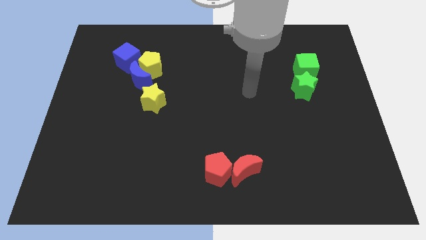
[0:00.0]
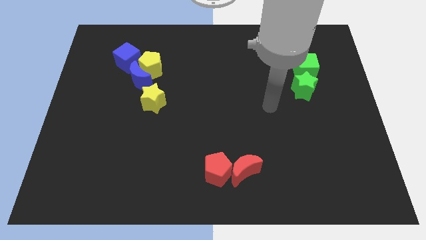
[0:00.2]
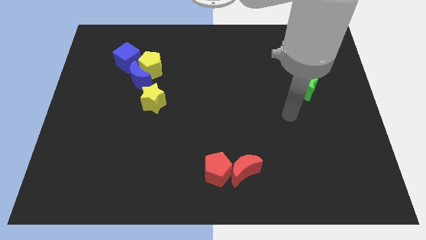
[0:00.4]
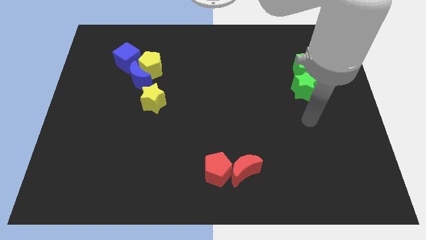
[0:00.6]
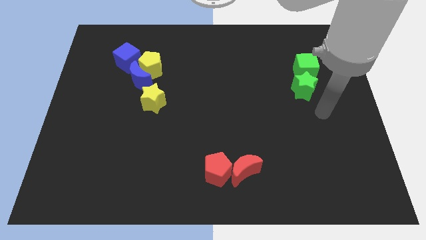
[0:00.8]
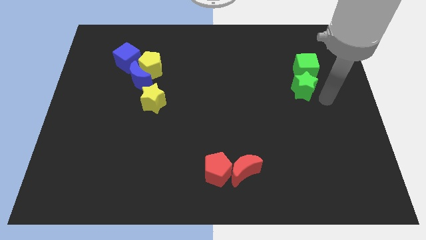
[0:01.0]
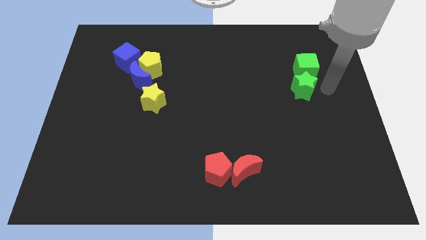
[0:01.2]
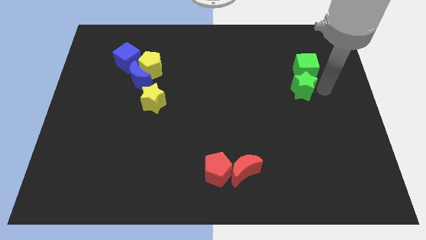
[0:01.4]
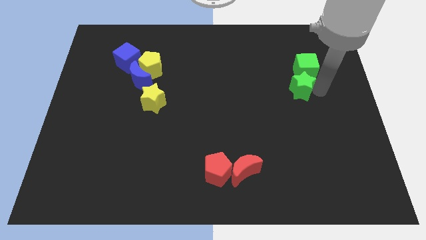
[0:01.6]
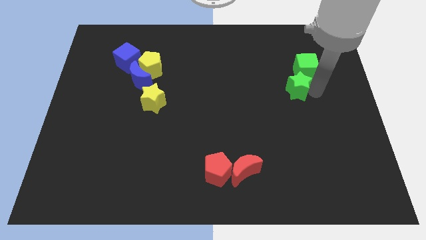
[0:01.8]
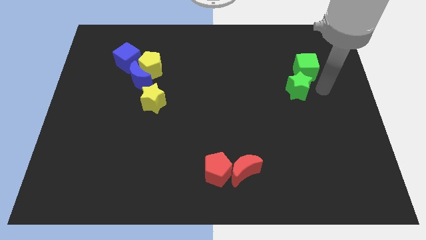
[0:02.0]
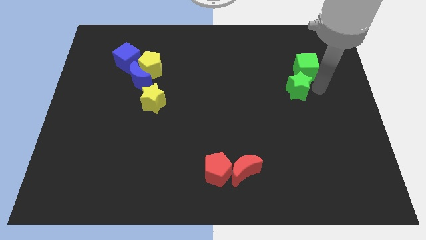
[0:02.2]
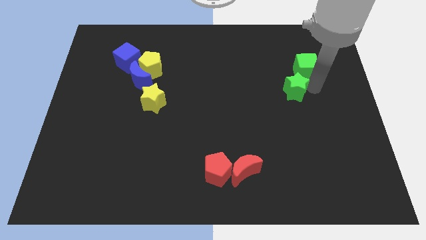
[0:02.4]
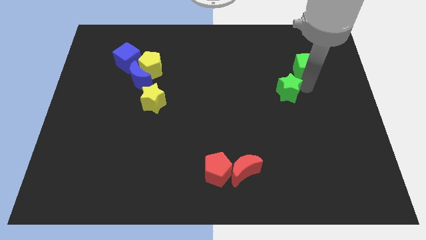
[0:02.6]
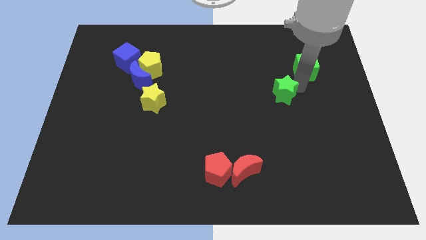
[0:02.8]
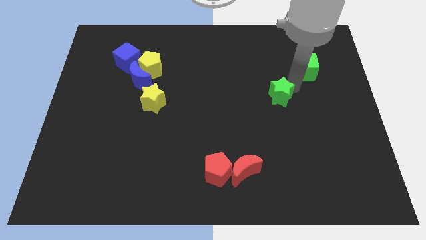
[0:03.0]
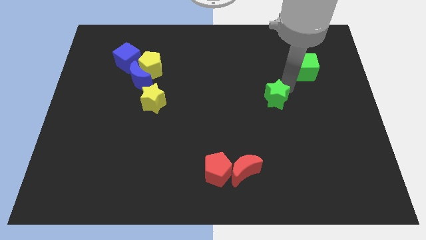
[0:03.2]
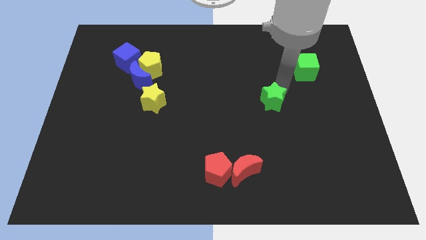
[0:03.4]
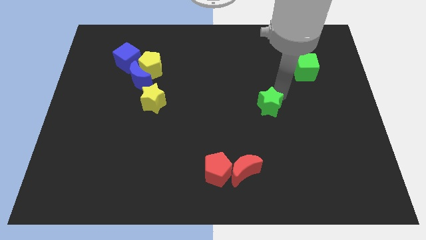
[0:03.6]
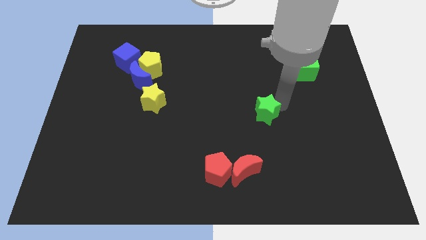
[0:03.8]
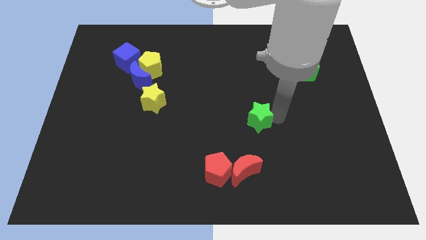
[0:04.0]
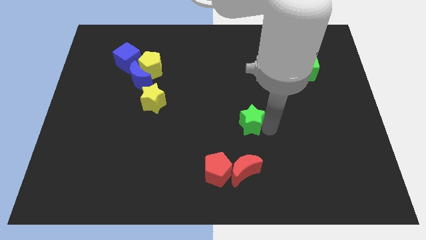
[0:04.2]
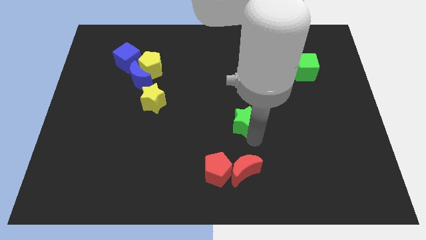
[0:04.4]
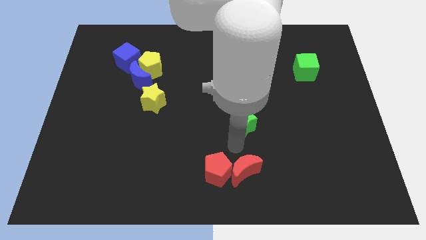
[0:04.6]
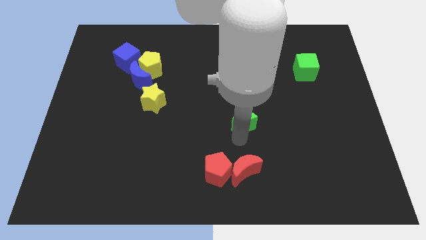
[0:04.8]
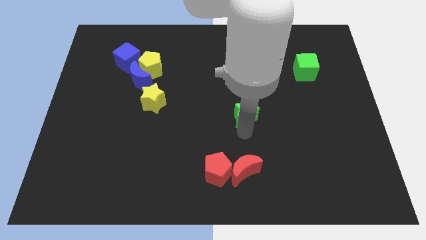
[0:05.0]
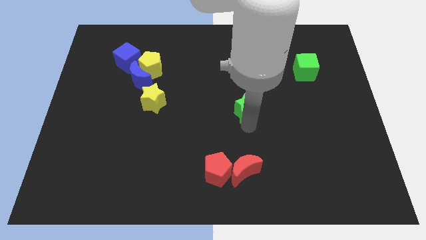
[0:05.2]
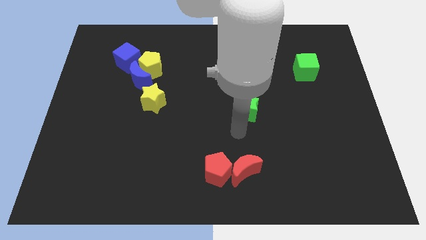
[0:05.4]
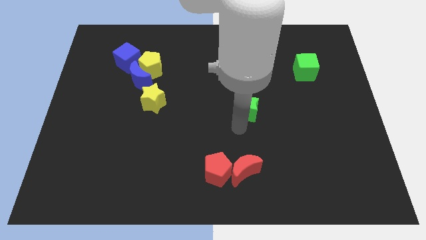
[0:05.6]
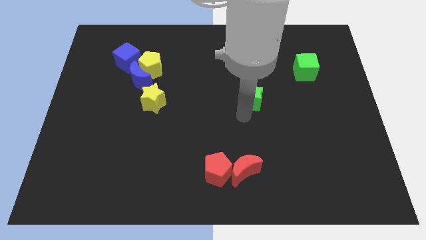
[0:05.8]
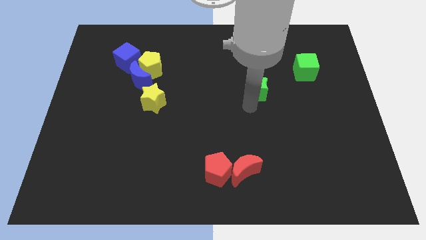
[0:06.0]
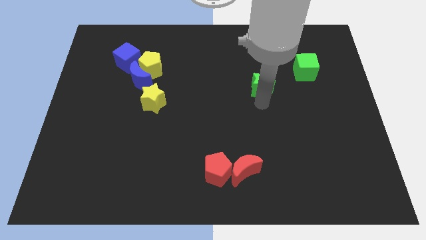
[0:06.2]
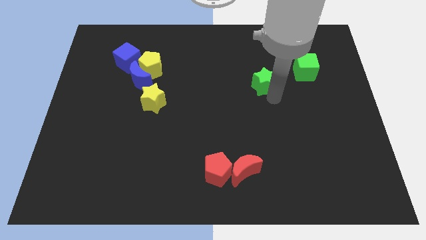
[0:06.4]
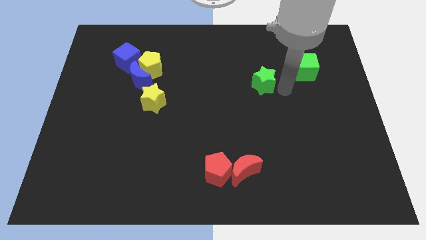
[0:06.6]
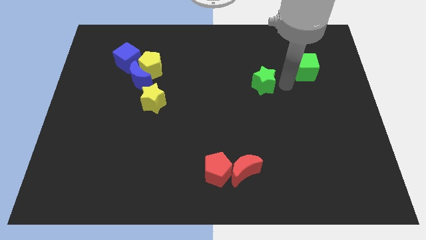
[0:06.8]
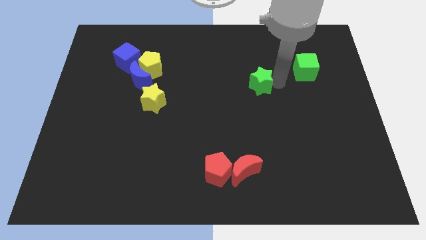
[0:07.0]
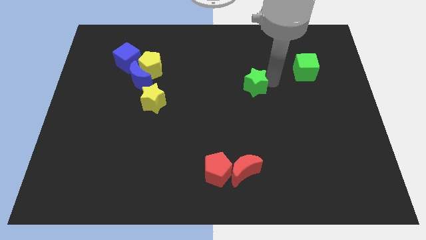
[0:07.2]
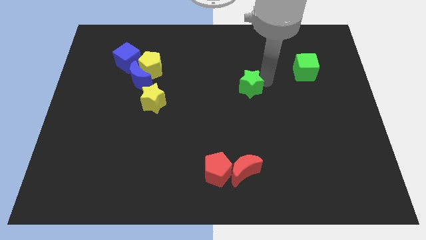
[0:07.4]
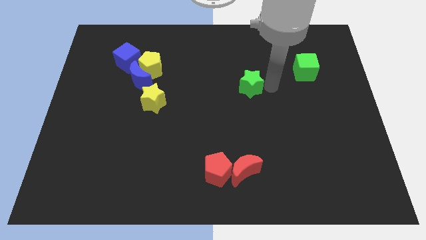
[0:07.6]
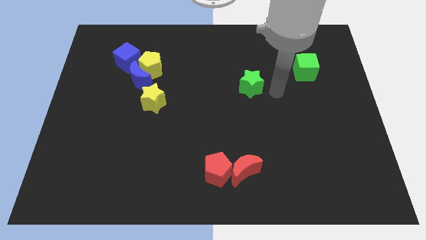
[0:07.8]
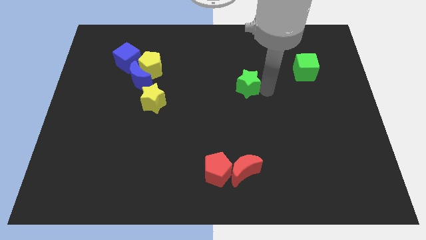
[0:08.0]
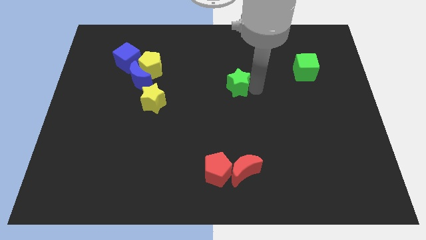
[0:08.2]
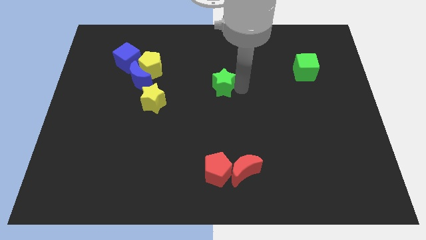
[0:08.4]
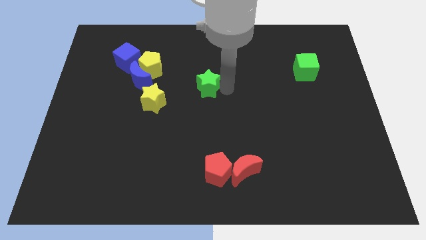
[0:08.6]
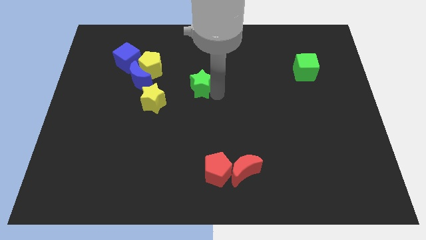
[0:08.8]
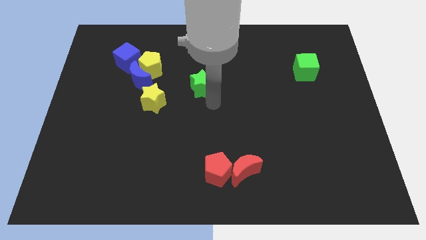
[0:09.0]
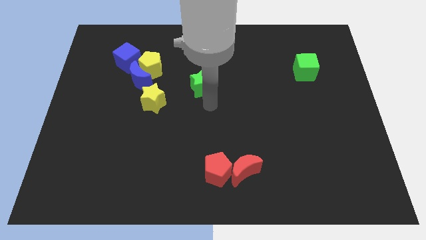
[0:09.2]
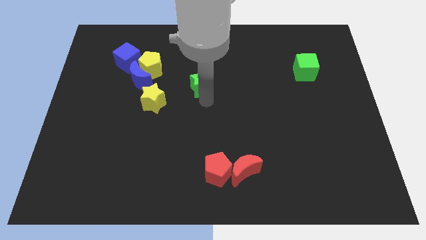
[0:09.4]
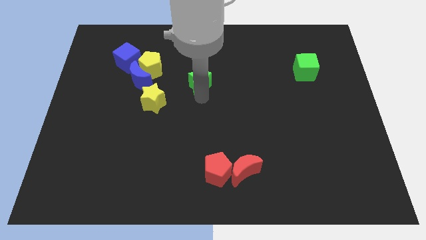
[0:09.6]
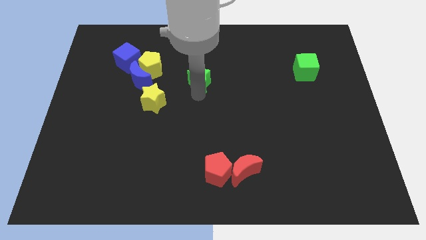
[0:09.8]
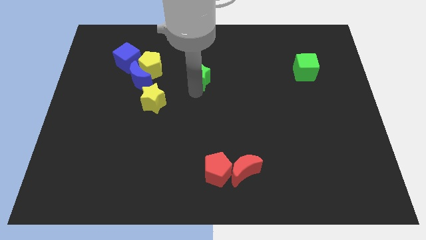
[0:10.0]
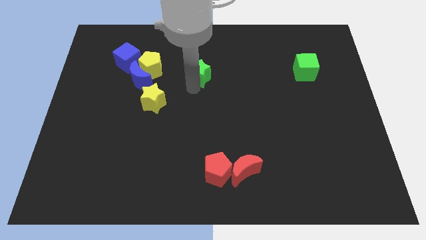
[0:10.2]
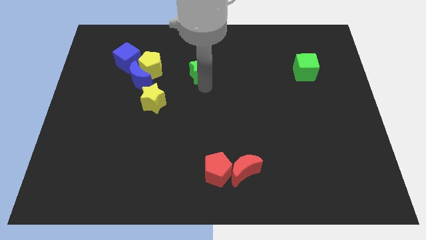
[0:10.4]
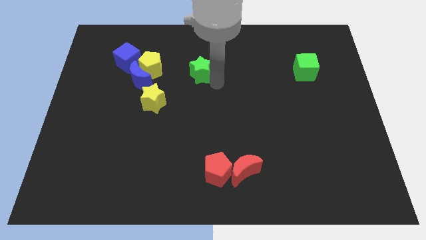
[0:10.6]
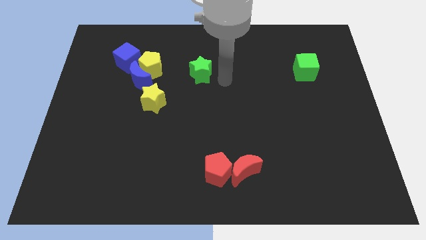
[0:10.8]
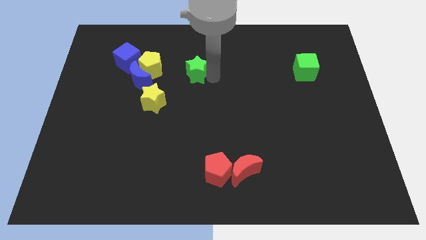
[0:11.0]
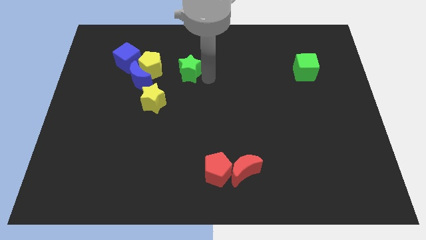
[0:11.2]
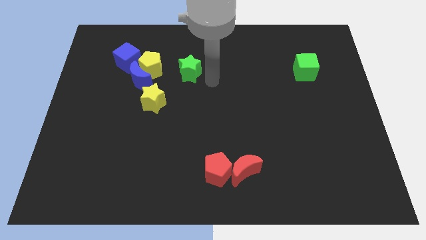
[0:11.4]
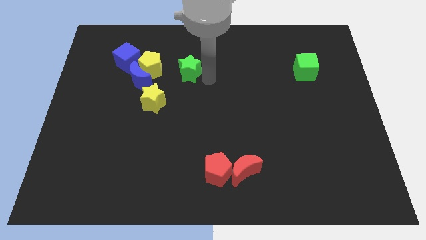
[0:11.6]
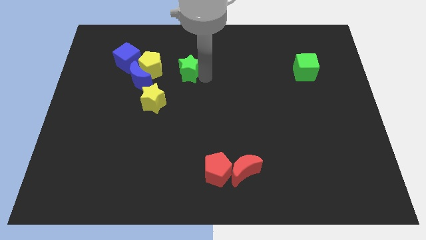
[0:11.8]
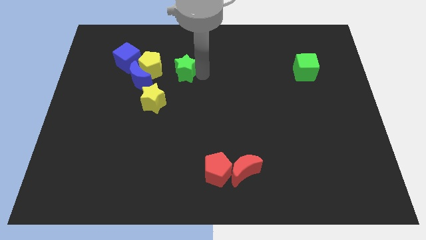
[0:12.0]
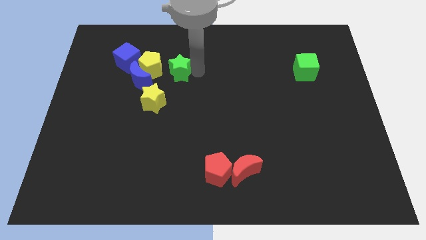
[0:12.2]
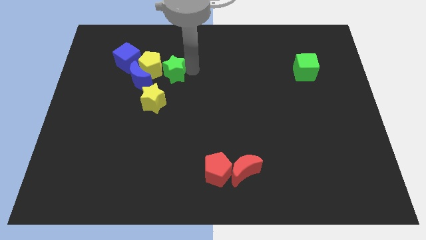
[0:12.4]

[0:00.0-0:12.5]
slide the green star next to the yellow pentagon

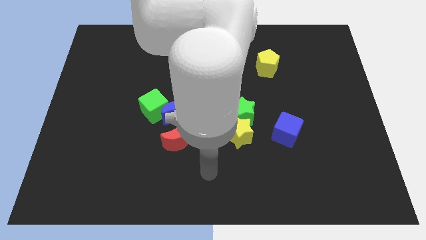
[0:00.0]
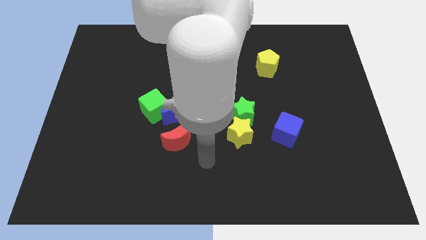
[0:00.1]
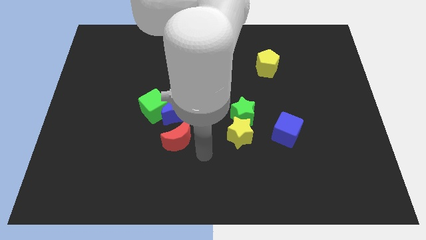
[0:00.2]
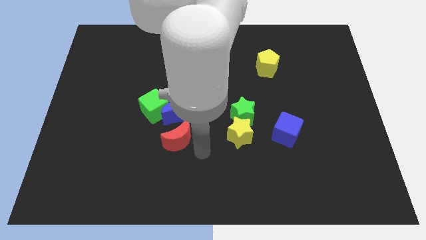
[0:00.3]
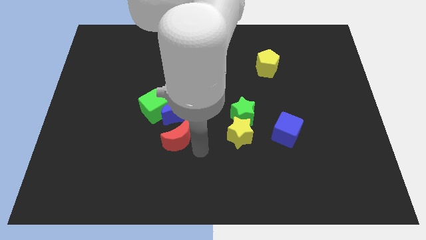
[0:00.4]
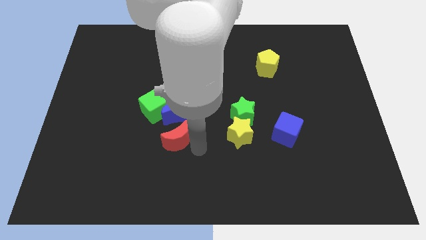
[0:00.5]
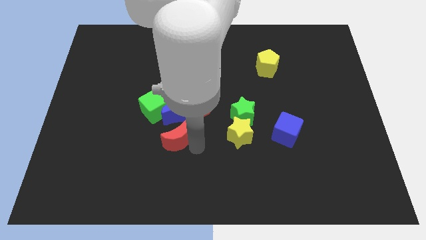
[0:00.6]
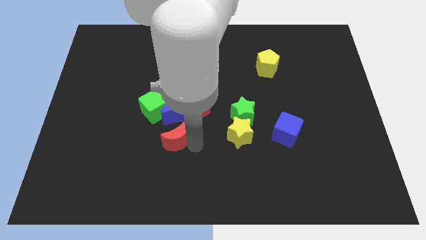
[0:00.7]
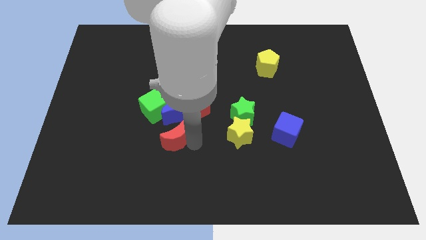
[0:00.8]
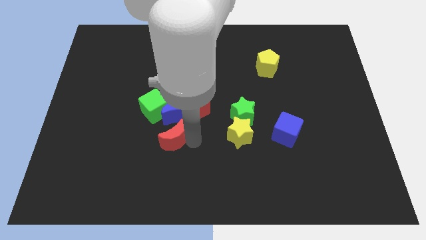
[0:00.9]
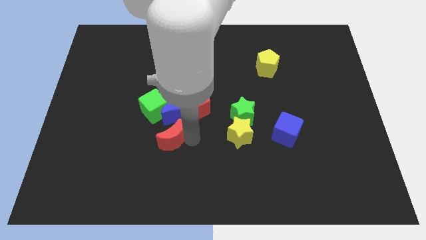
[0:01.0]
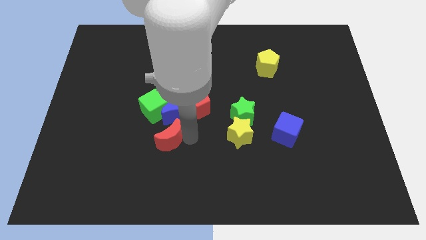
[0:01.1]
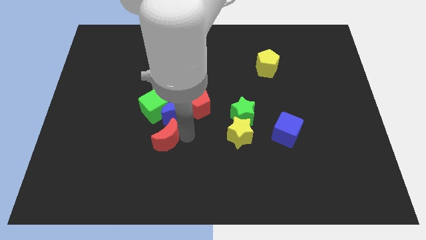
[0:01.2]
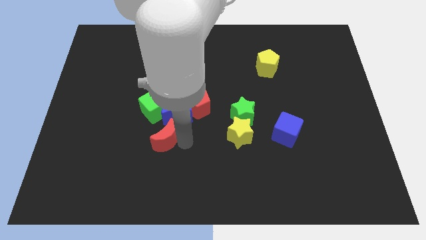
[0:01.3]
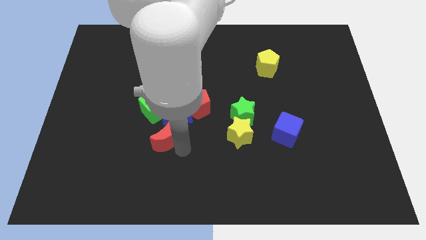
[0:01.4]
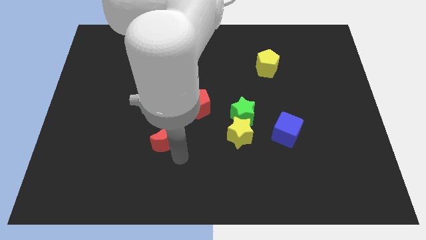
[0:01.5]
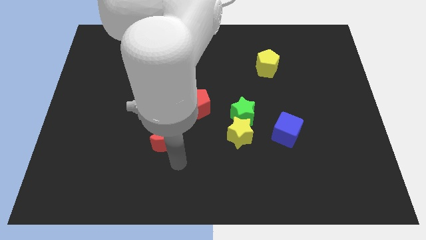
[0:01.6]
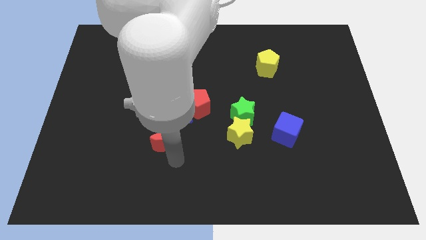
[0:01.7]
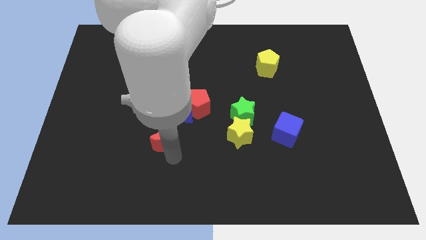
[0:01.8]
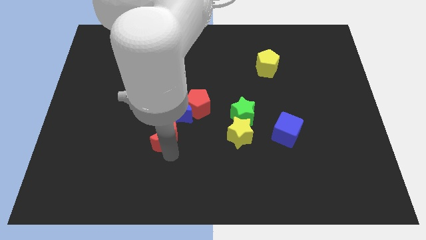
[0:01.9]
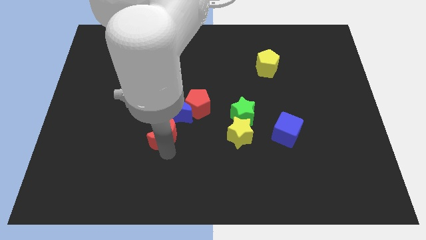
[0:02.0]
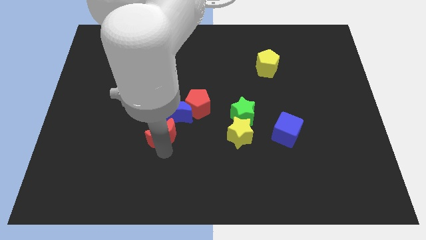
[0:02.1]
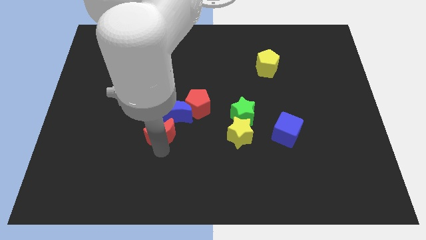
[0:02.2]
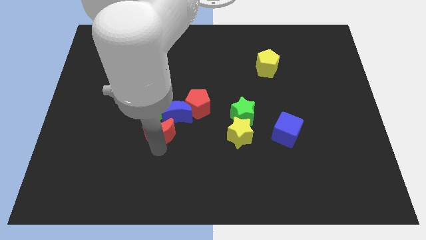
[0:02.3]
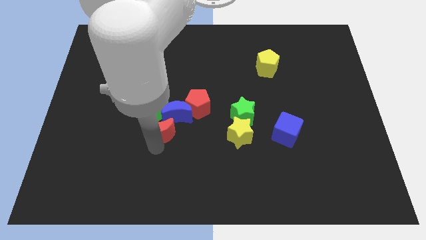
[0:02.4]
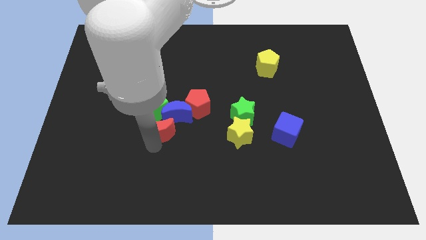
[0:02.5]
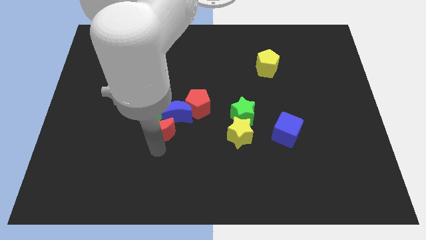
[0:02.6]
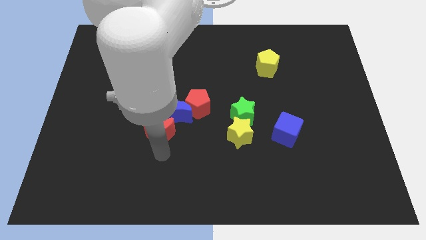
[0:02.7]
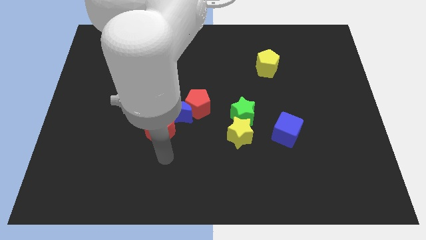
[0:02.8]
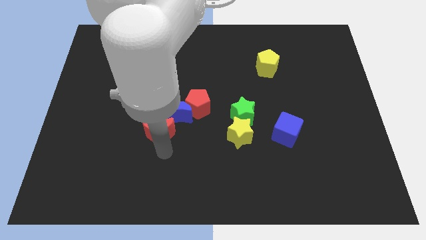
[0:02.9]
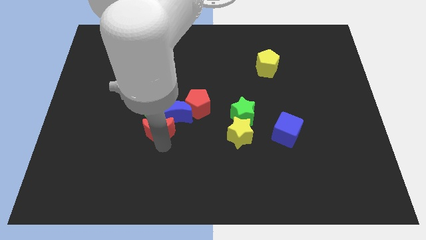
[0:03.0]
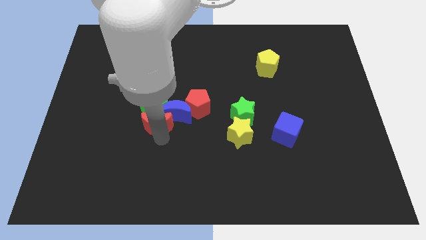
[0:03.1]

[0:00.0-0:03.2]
push the red moon to the green cube
